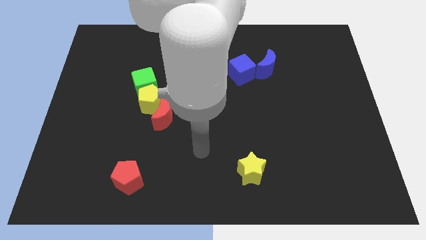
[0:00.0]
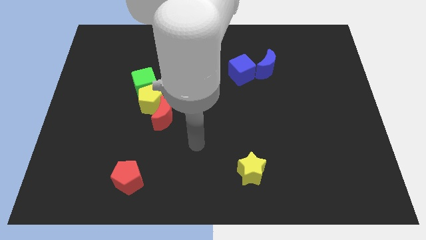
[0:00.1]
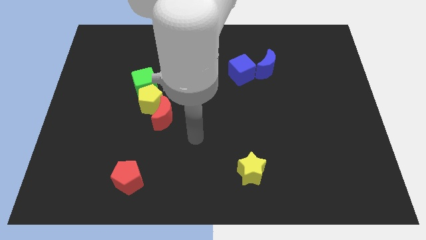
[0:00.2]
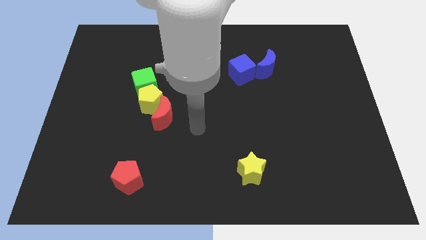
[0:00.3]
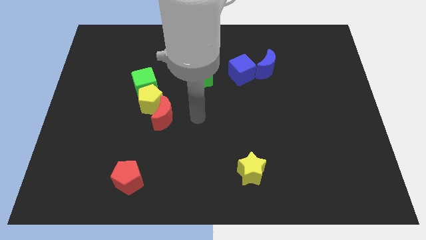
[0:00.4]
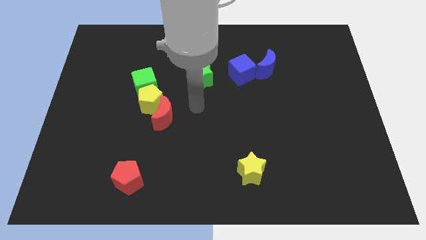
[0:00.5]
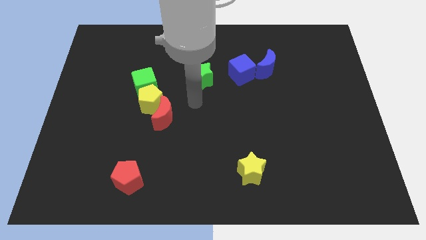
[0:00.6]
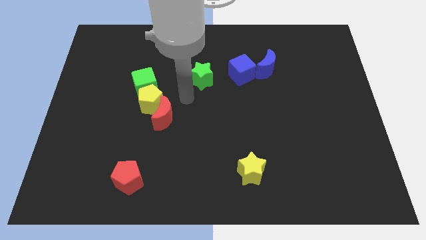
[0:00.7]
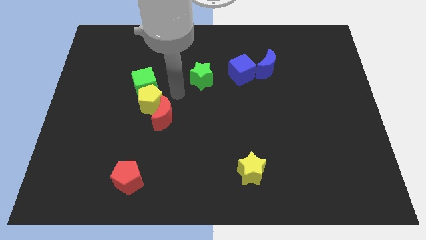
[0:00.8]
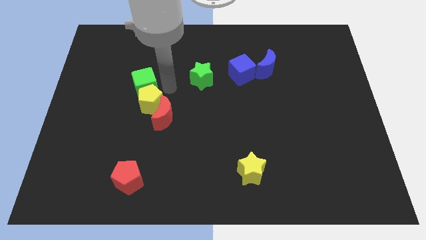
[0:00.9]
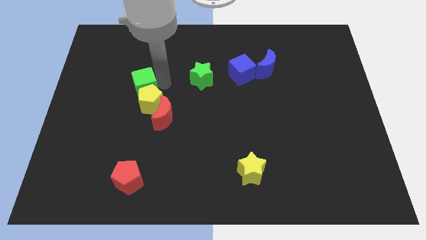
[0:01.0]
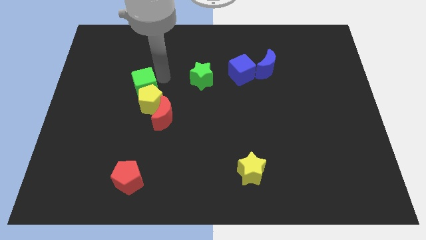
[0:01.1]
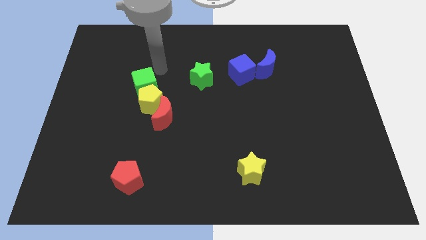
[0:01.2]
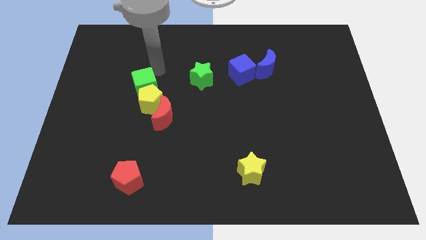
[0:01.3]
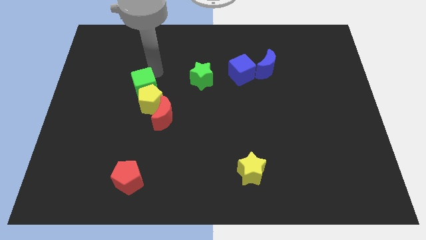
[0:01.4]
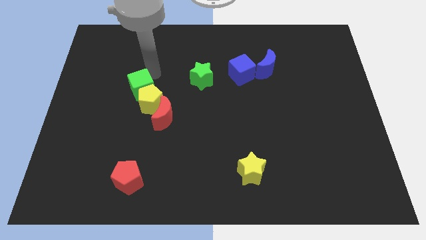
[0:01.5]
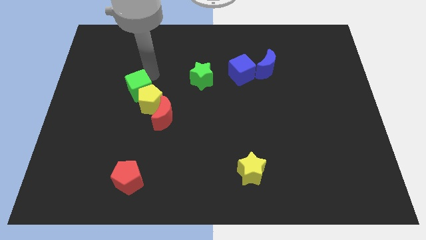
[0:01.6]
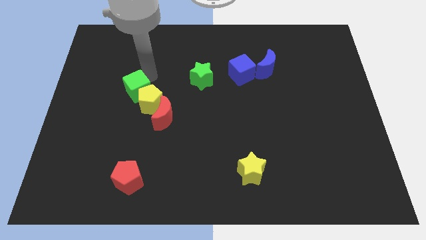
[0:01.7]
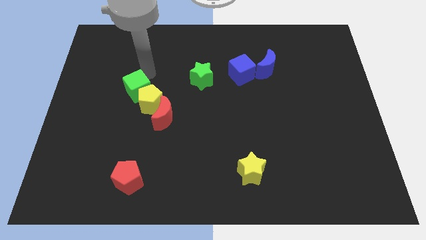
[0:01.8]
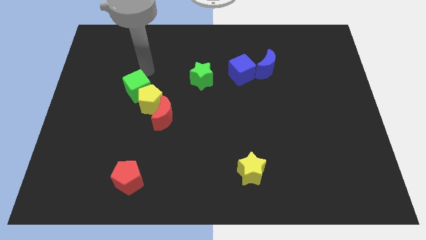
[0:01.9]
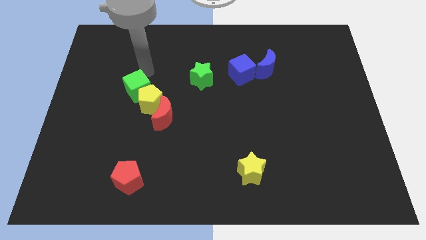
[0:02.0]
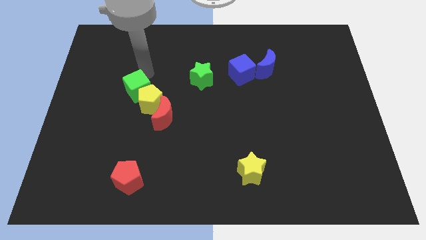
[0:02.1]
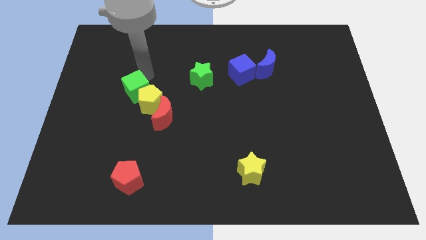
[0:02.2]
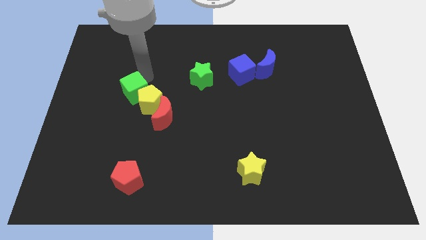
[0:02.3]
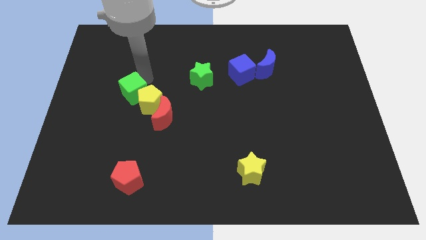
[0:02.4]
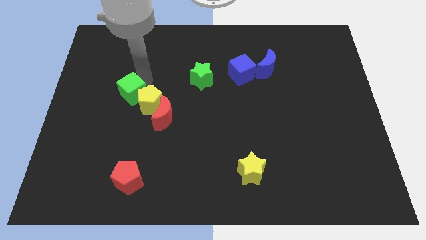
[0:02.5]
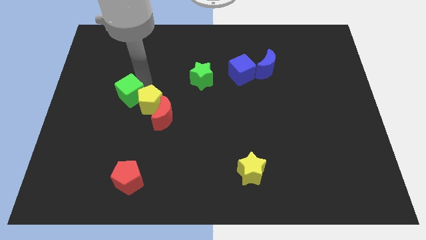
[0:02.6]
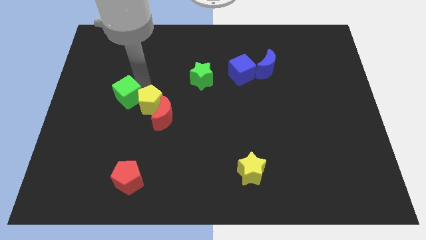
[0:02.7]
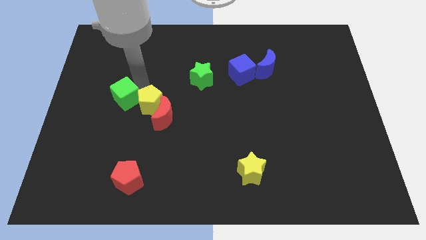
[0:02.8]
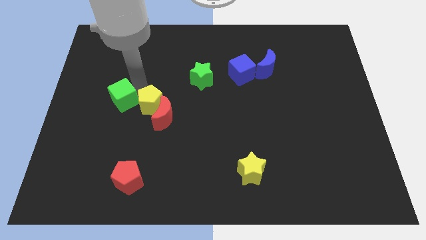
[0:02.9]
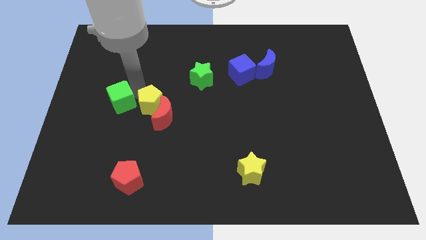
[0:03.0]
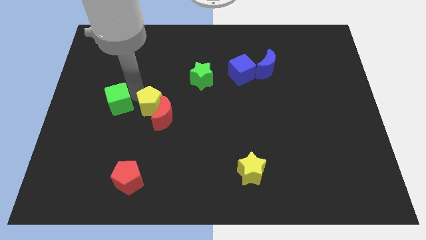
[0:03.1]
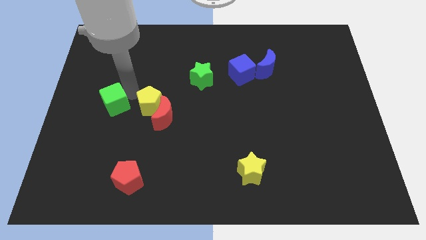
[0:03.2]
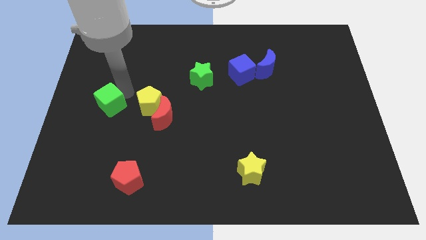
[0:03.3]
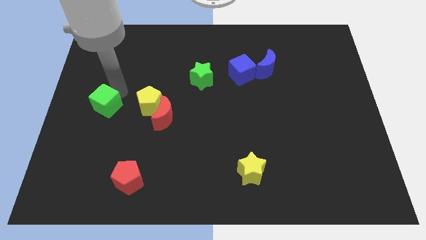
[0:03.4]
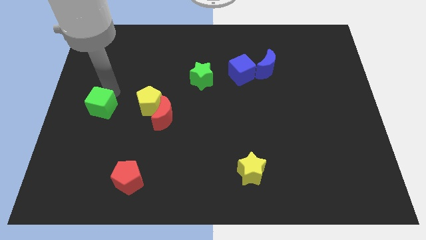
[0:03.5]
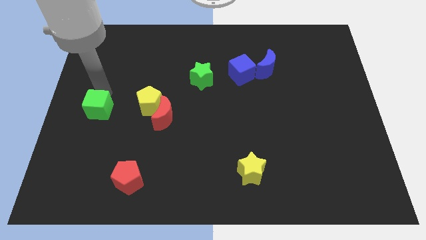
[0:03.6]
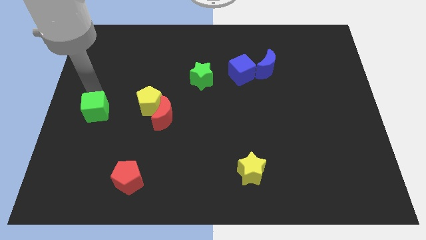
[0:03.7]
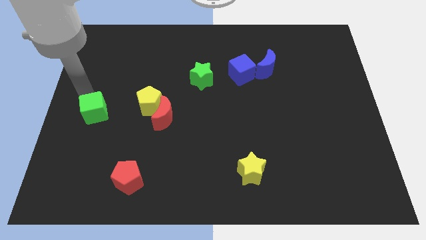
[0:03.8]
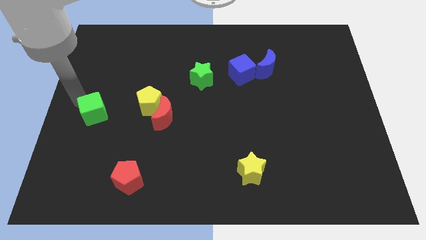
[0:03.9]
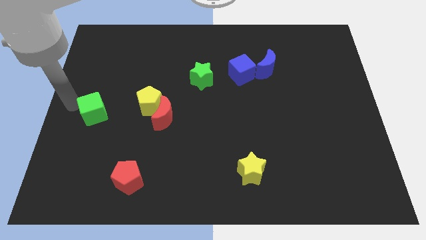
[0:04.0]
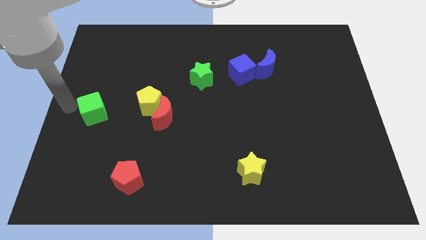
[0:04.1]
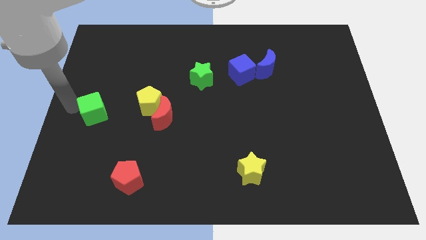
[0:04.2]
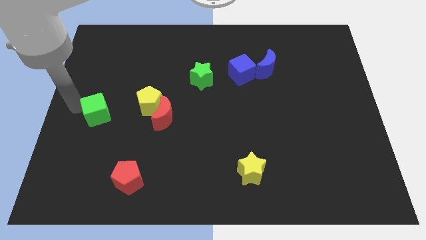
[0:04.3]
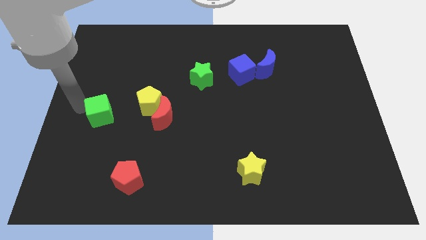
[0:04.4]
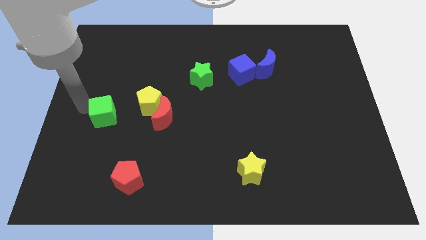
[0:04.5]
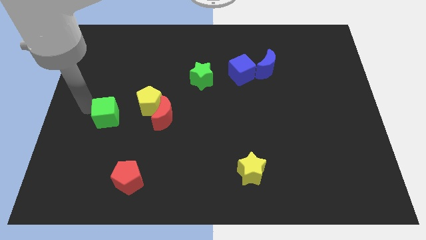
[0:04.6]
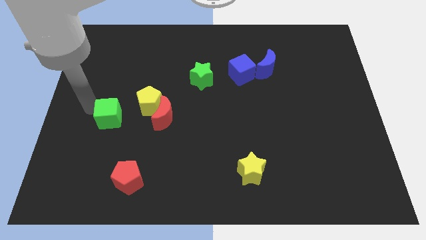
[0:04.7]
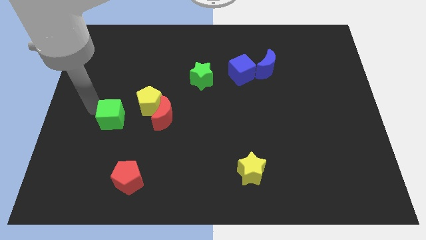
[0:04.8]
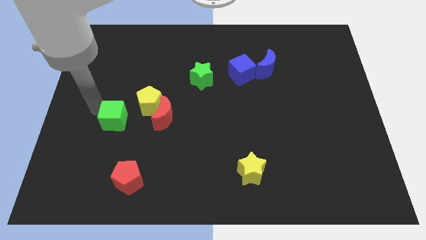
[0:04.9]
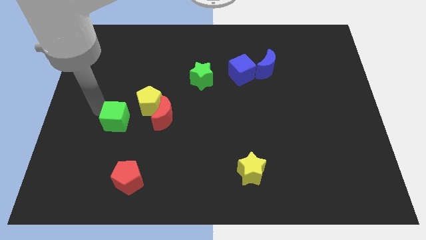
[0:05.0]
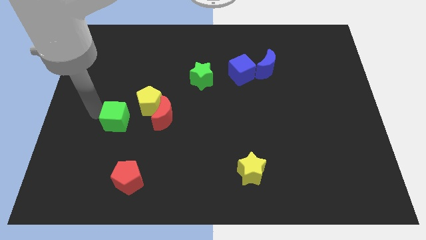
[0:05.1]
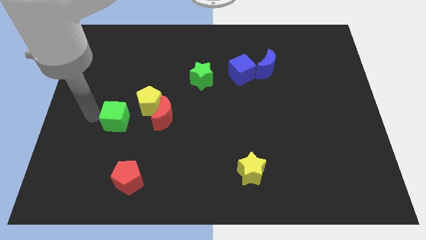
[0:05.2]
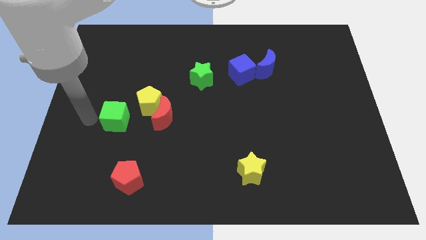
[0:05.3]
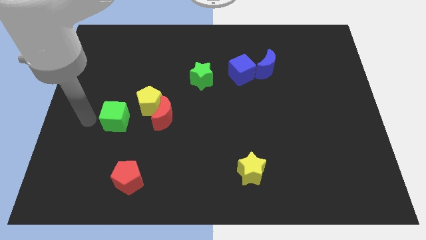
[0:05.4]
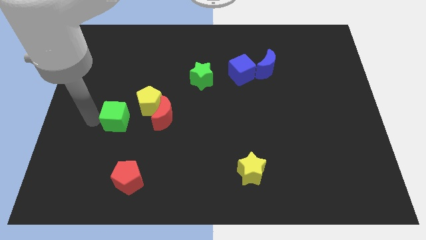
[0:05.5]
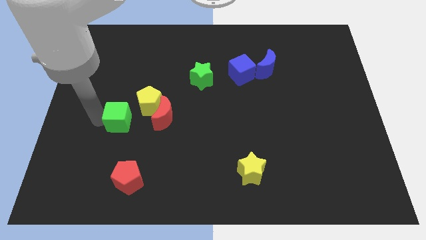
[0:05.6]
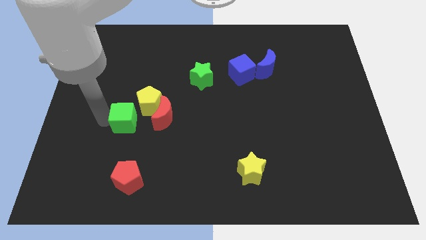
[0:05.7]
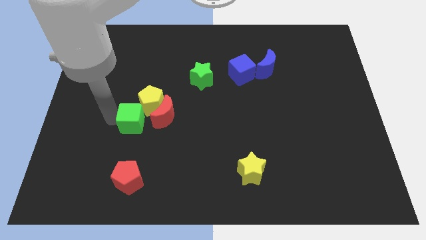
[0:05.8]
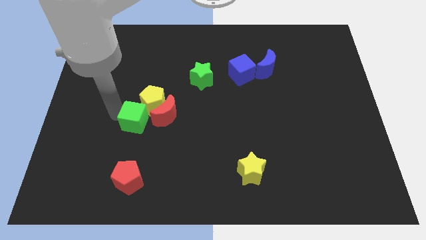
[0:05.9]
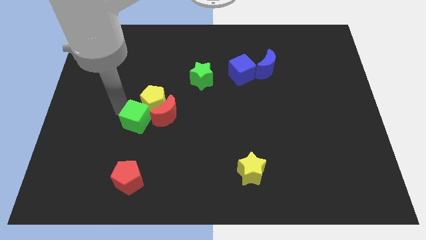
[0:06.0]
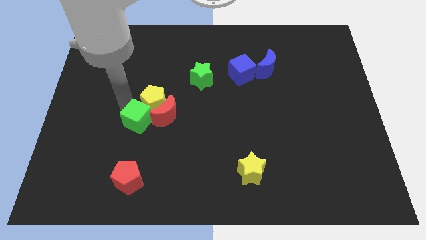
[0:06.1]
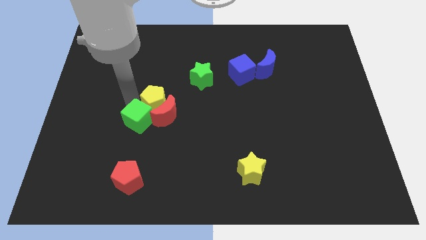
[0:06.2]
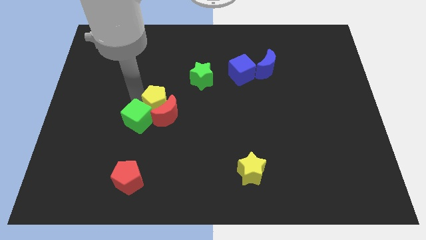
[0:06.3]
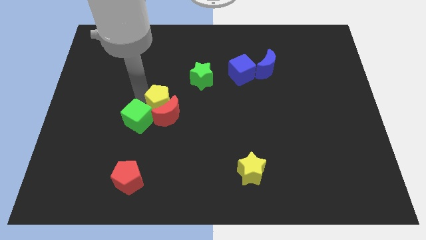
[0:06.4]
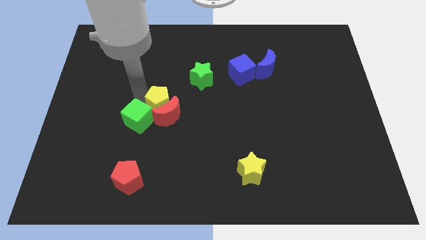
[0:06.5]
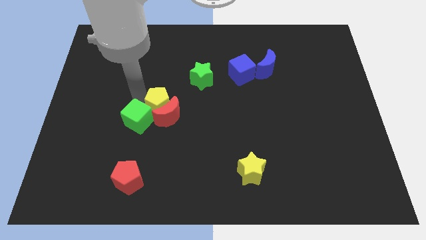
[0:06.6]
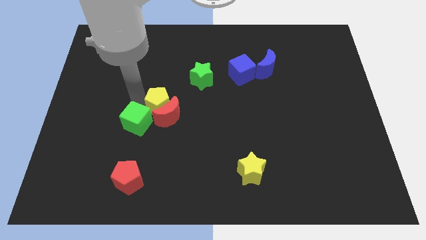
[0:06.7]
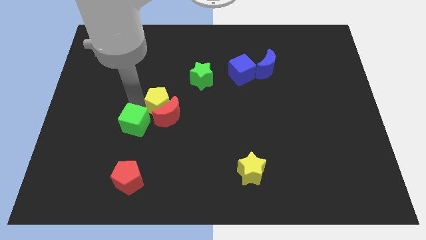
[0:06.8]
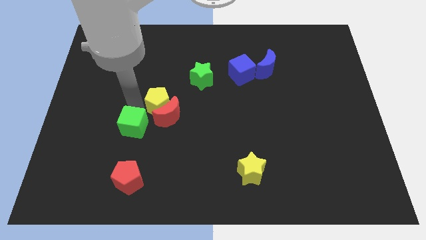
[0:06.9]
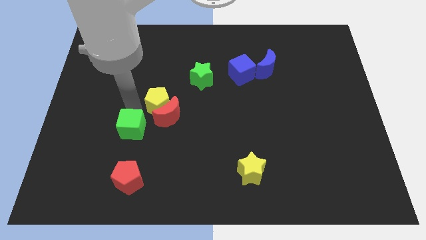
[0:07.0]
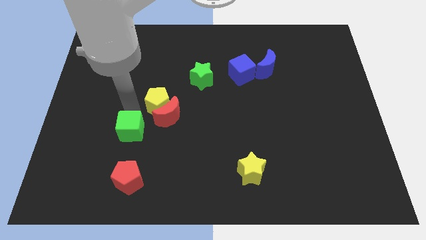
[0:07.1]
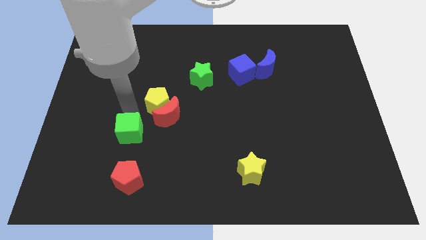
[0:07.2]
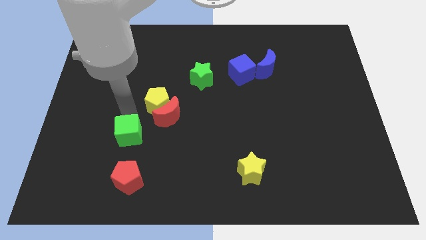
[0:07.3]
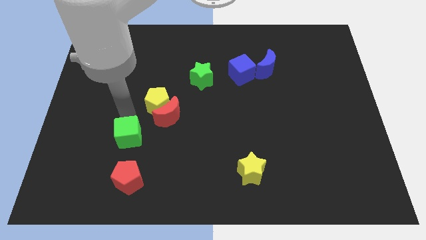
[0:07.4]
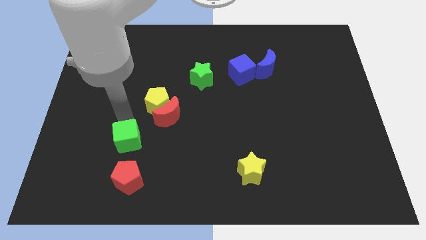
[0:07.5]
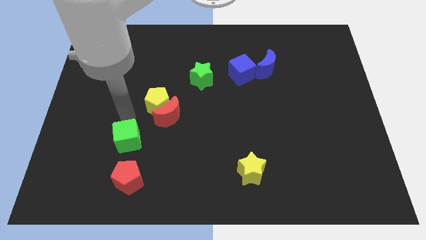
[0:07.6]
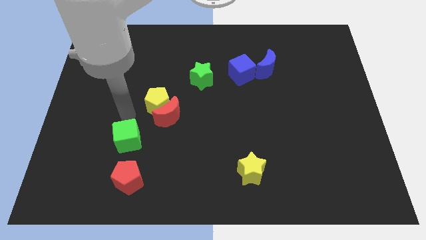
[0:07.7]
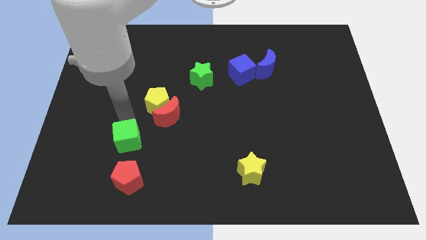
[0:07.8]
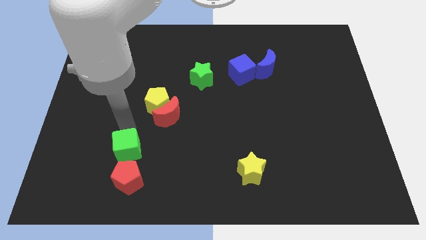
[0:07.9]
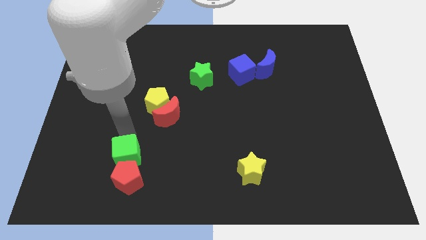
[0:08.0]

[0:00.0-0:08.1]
slide the green cube towards the red pentagon
